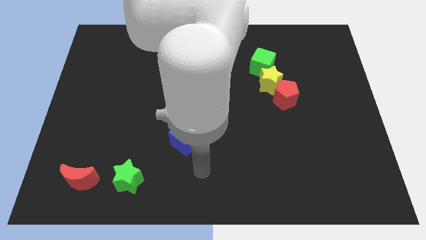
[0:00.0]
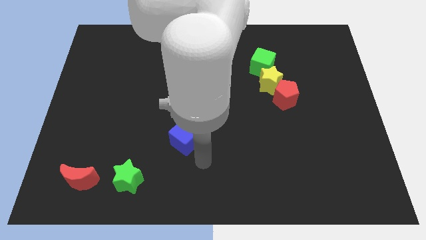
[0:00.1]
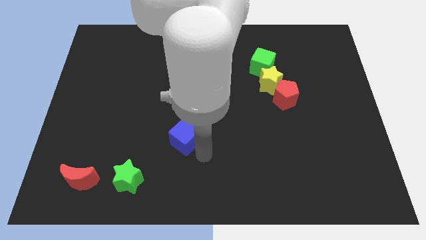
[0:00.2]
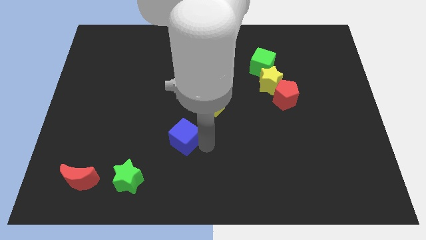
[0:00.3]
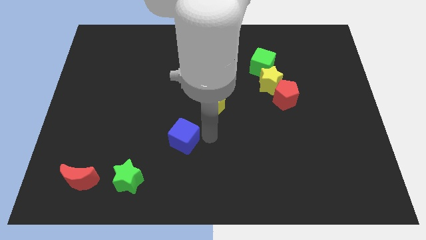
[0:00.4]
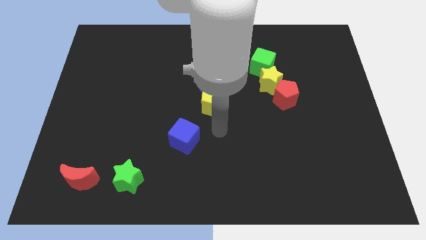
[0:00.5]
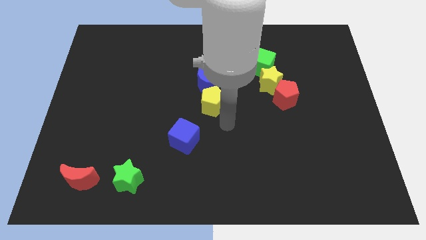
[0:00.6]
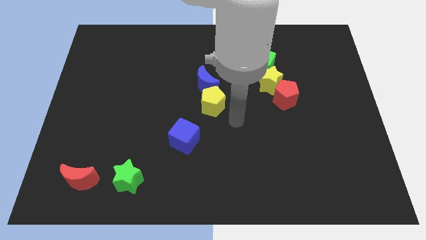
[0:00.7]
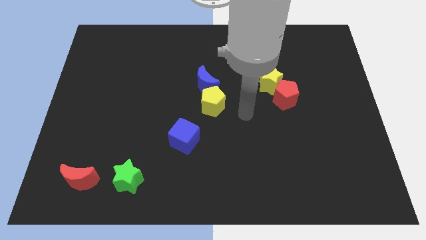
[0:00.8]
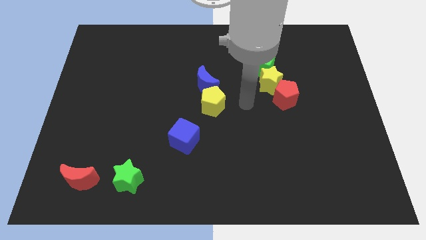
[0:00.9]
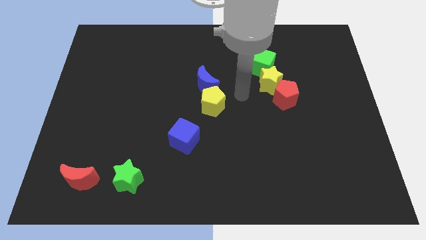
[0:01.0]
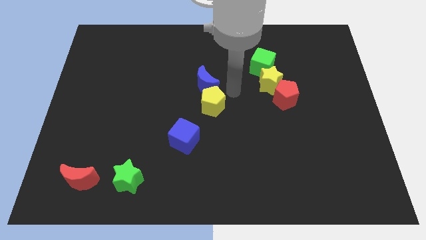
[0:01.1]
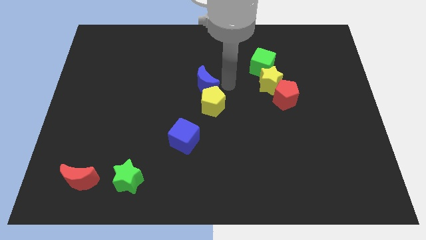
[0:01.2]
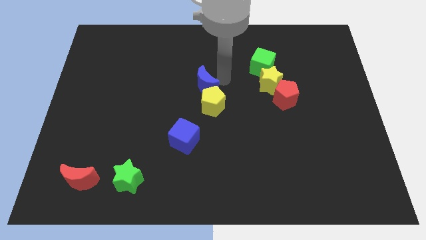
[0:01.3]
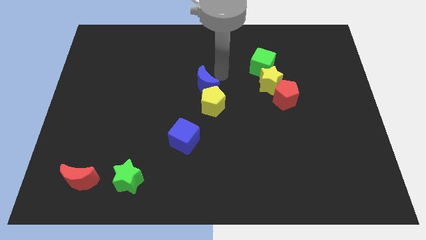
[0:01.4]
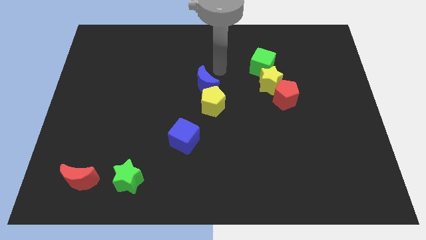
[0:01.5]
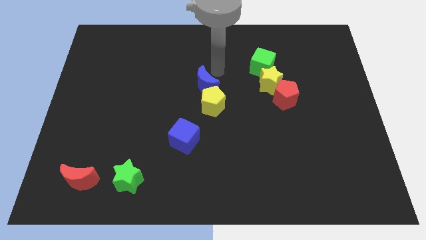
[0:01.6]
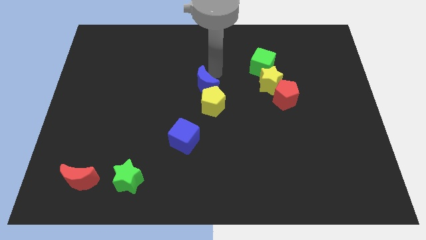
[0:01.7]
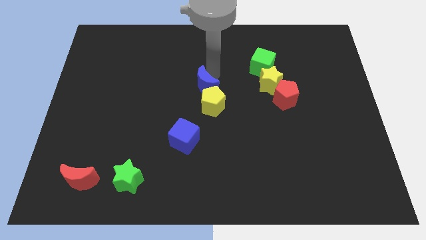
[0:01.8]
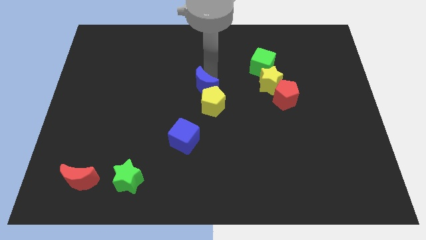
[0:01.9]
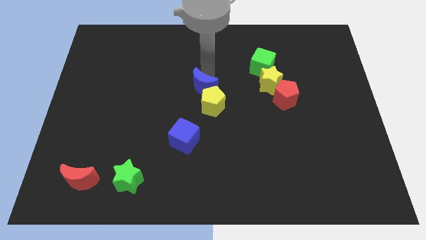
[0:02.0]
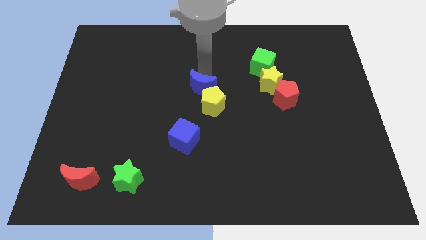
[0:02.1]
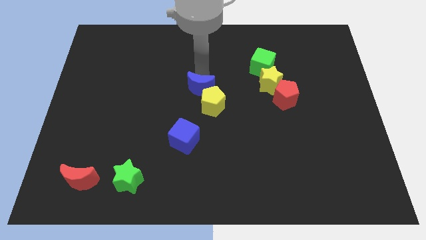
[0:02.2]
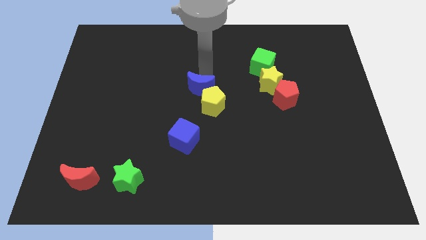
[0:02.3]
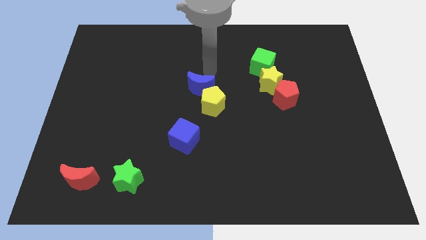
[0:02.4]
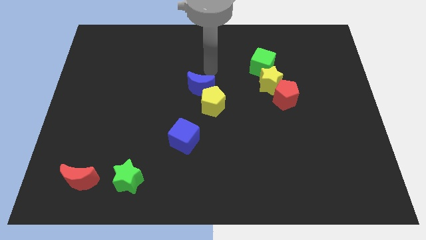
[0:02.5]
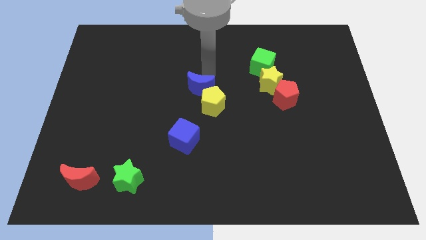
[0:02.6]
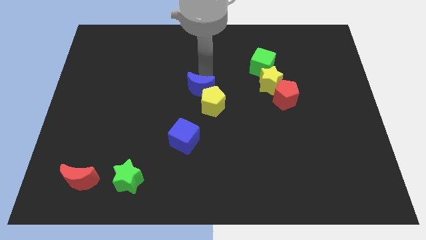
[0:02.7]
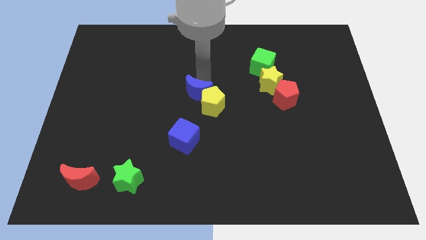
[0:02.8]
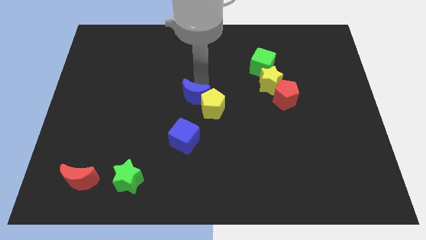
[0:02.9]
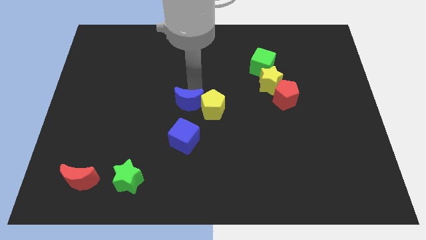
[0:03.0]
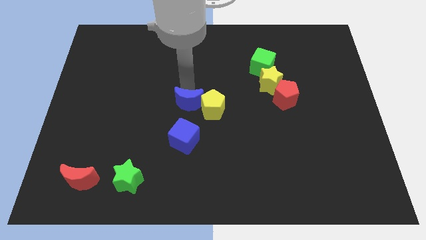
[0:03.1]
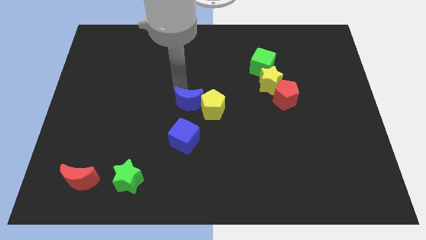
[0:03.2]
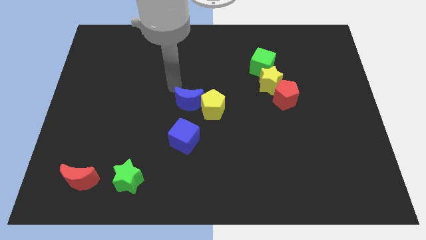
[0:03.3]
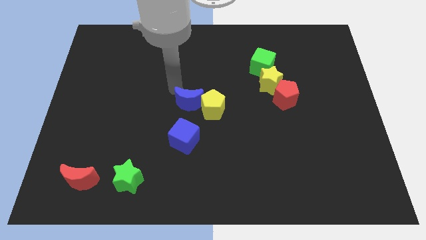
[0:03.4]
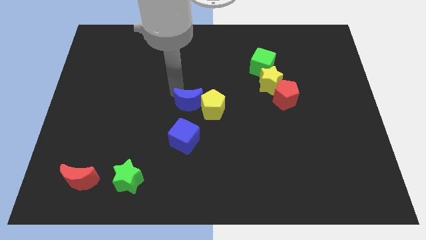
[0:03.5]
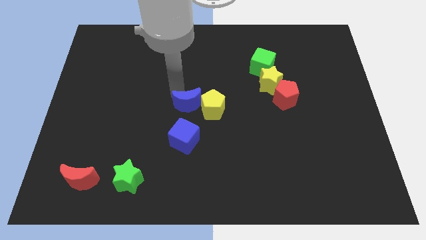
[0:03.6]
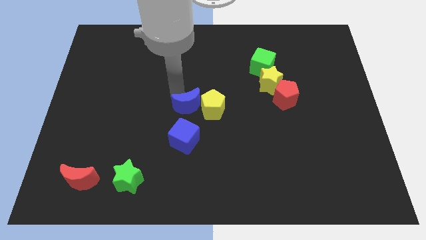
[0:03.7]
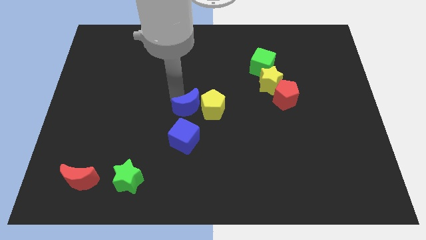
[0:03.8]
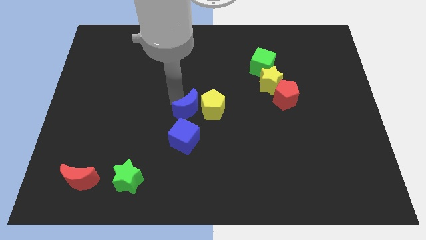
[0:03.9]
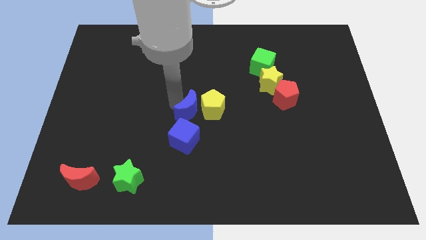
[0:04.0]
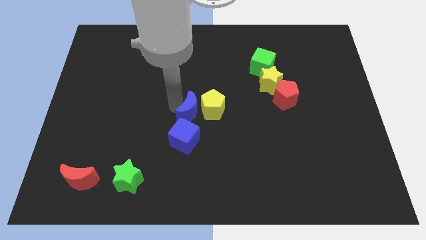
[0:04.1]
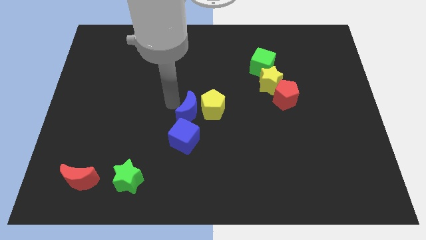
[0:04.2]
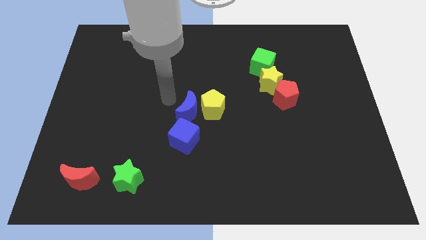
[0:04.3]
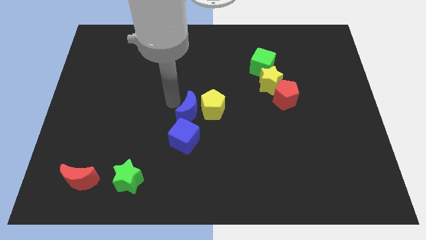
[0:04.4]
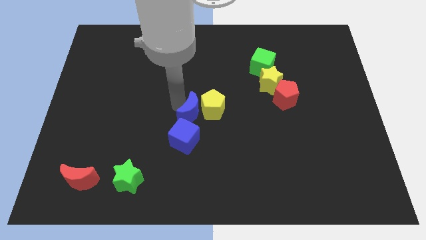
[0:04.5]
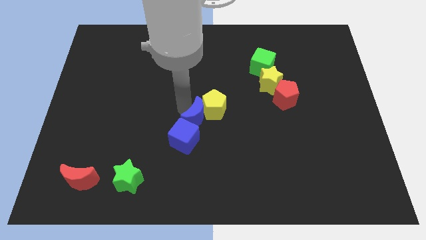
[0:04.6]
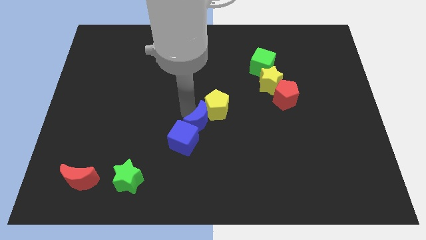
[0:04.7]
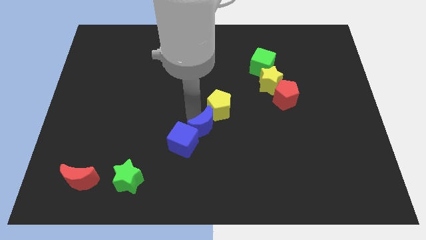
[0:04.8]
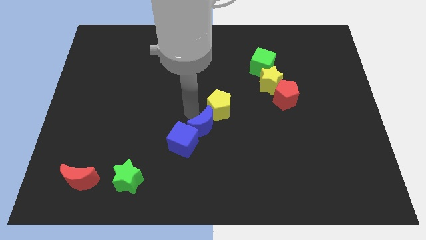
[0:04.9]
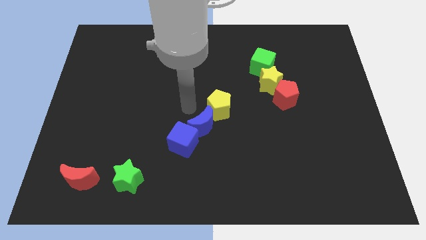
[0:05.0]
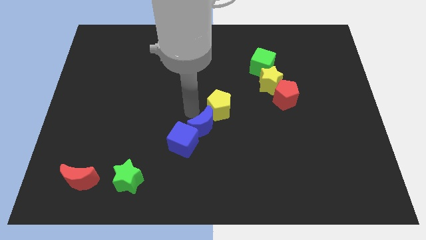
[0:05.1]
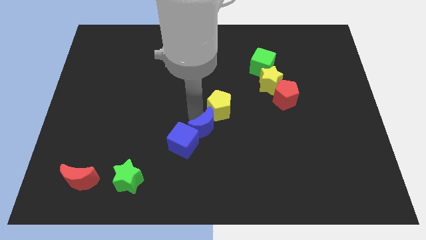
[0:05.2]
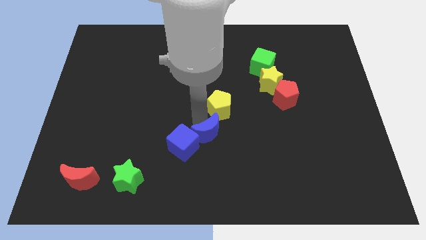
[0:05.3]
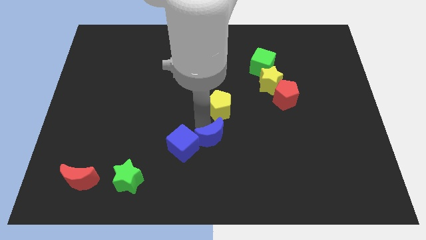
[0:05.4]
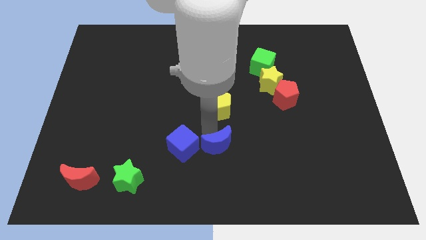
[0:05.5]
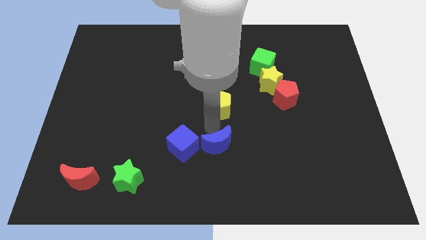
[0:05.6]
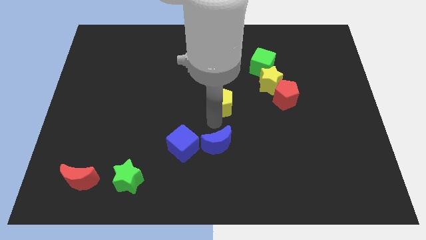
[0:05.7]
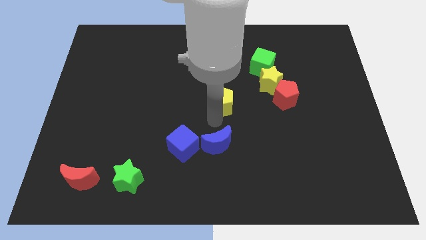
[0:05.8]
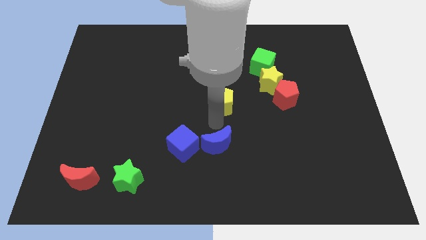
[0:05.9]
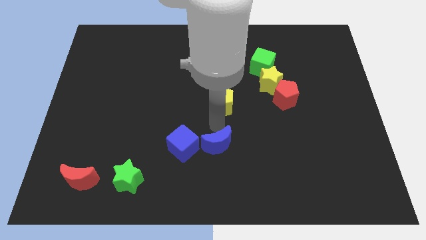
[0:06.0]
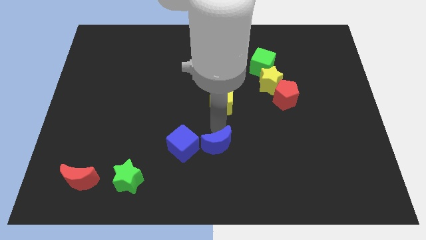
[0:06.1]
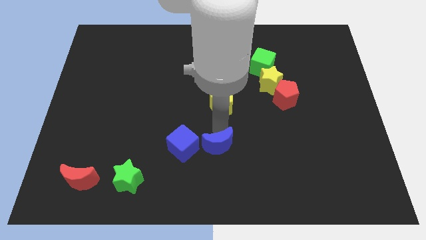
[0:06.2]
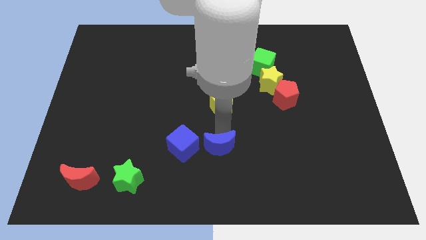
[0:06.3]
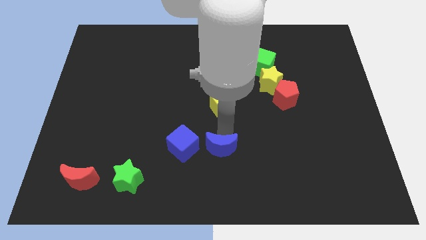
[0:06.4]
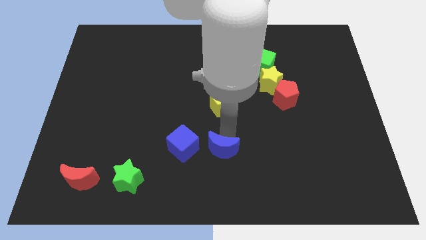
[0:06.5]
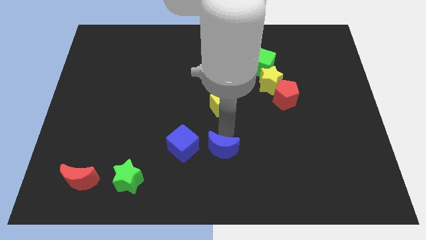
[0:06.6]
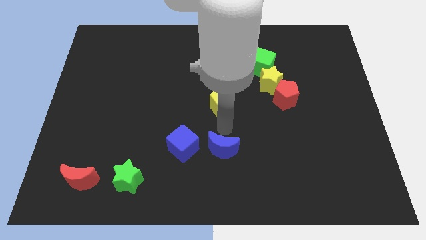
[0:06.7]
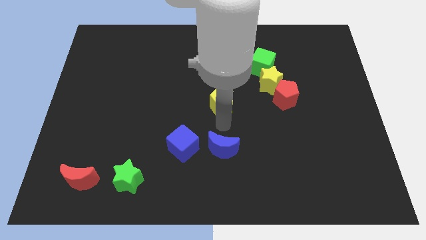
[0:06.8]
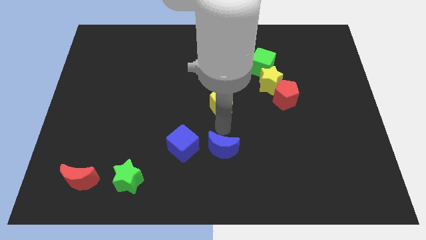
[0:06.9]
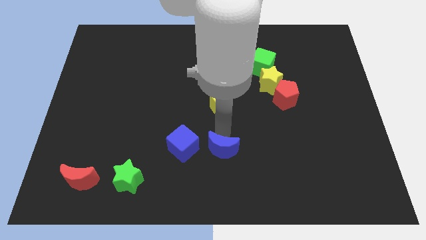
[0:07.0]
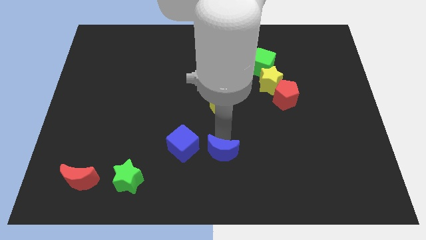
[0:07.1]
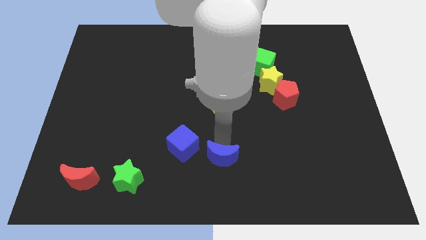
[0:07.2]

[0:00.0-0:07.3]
move the blue moon to the bottom

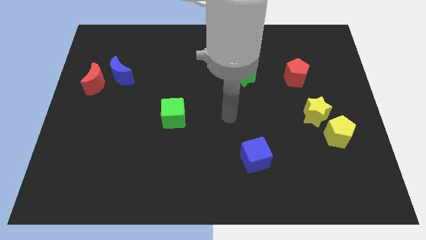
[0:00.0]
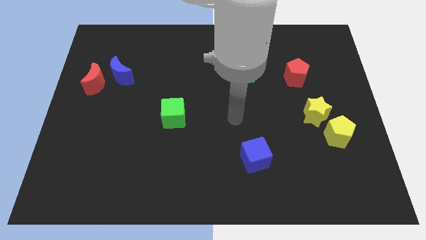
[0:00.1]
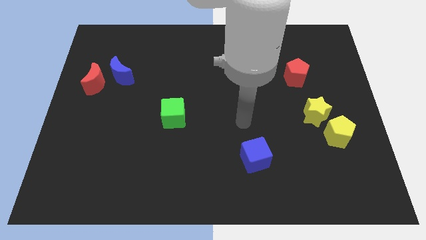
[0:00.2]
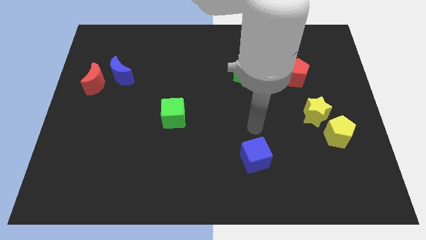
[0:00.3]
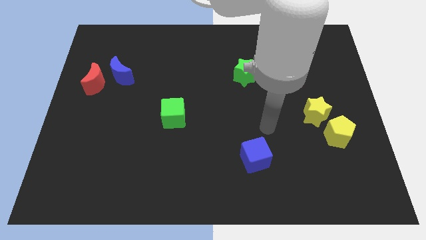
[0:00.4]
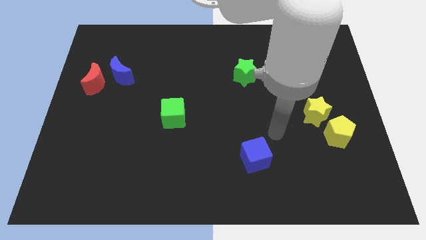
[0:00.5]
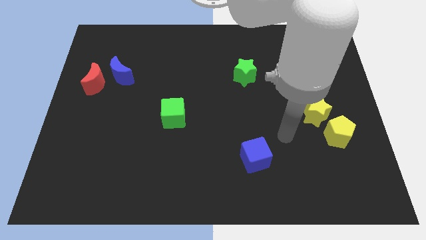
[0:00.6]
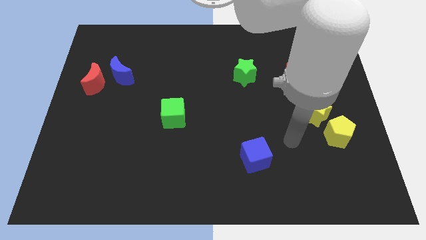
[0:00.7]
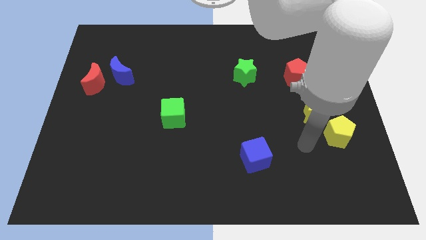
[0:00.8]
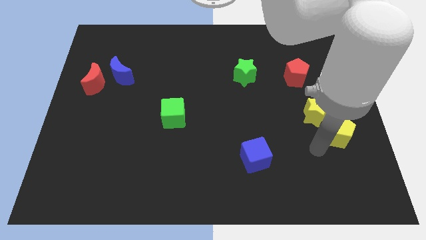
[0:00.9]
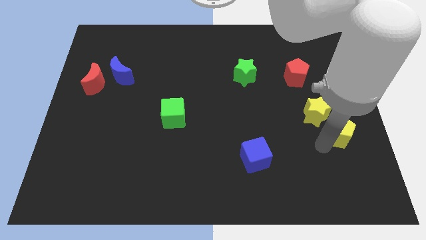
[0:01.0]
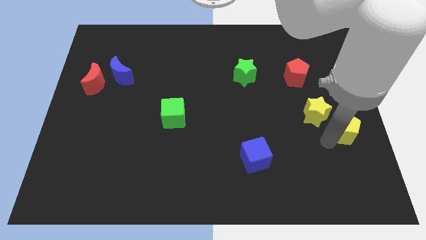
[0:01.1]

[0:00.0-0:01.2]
slide the yellow pentagon to the center right
